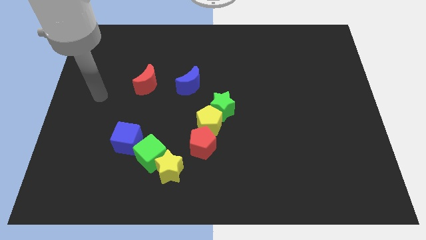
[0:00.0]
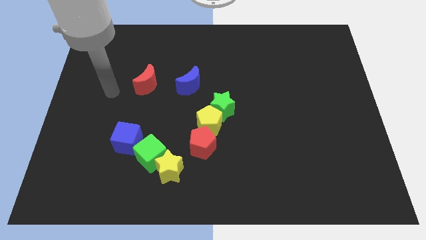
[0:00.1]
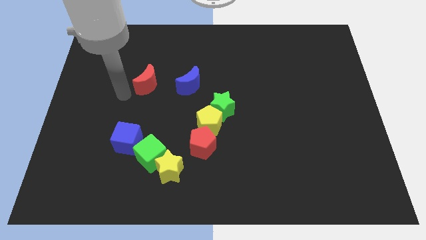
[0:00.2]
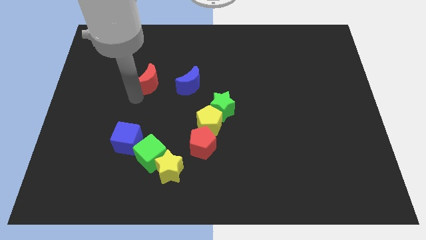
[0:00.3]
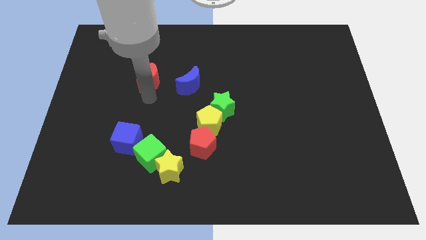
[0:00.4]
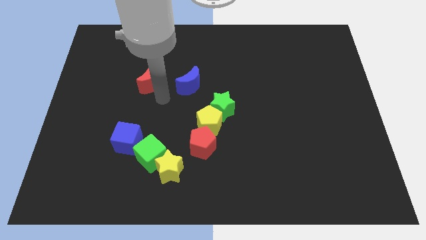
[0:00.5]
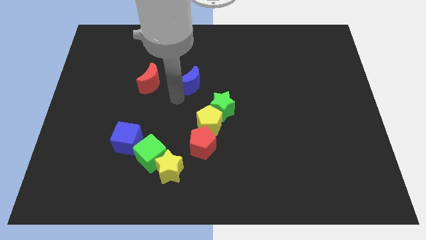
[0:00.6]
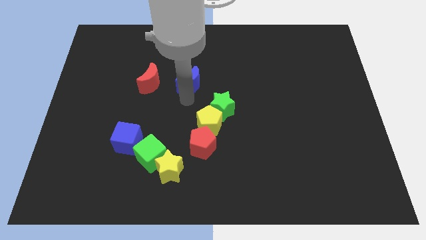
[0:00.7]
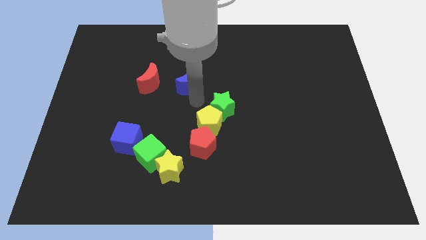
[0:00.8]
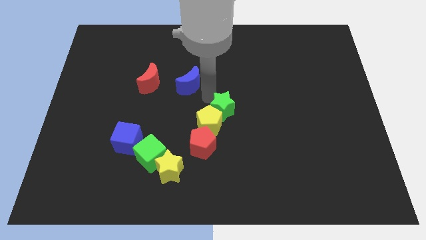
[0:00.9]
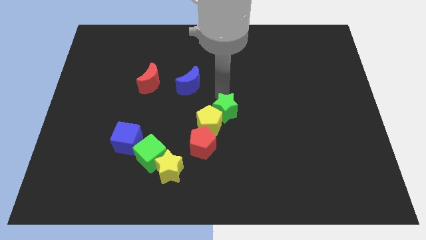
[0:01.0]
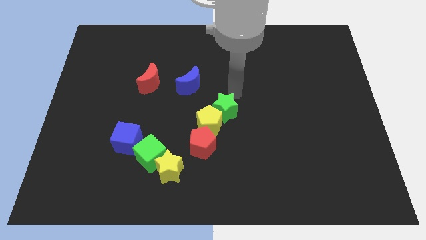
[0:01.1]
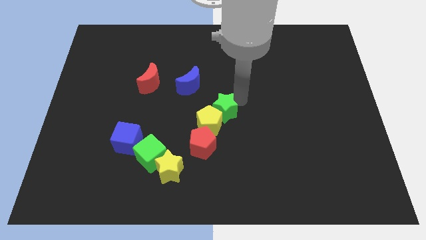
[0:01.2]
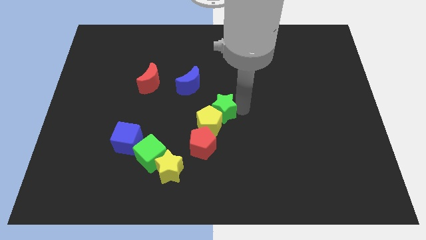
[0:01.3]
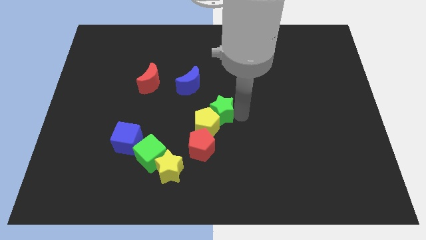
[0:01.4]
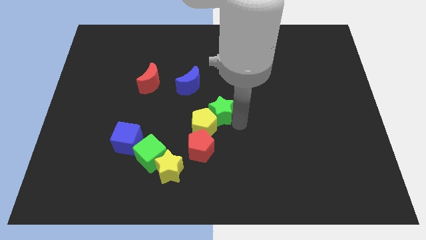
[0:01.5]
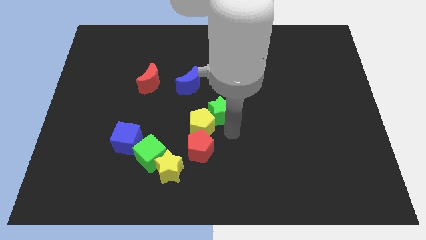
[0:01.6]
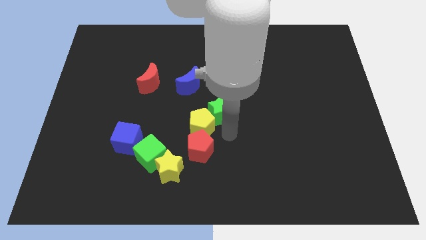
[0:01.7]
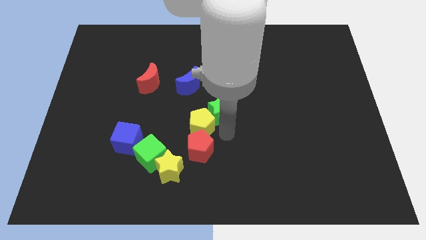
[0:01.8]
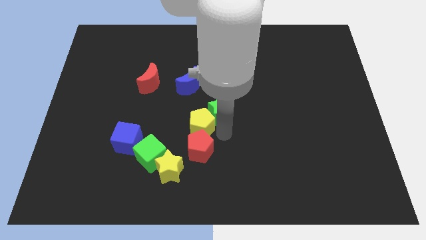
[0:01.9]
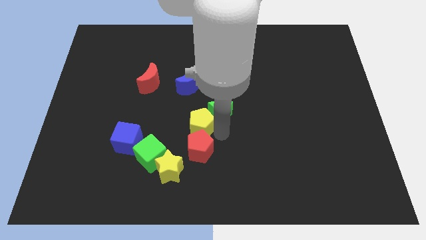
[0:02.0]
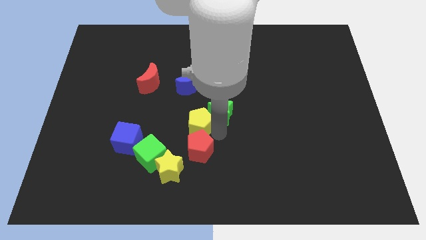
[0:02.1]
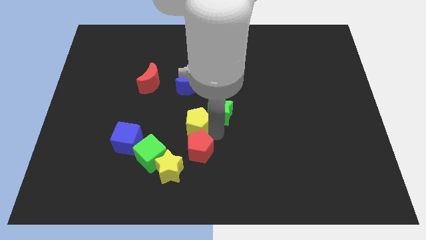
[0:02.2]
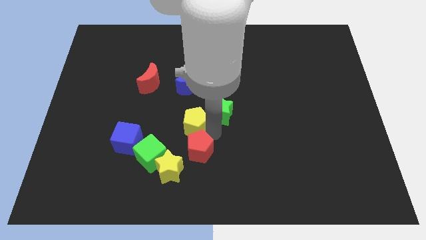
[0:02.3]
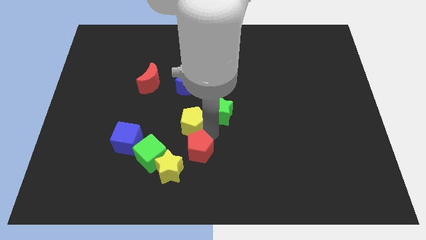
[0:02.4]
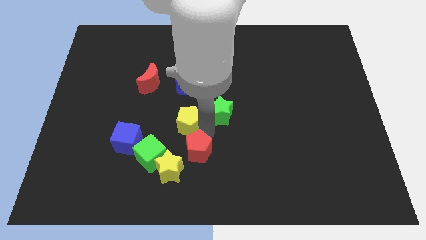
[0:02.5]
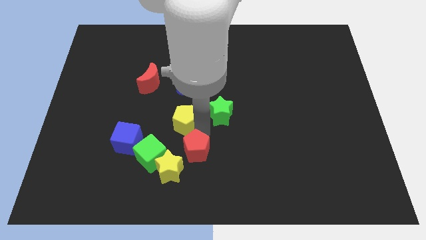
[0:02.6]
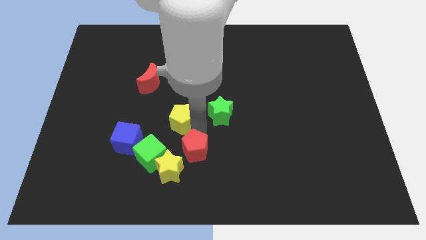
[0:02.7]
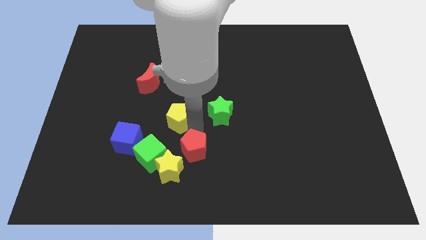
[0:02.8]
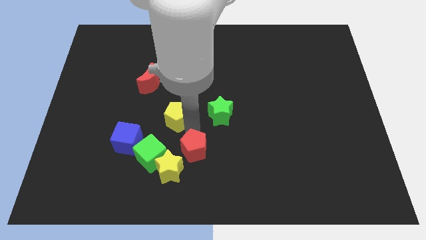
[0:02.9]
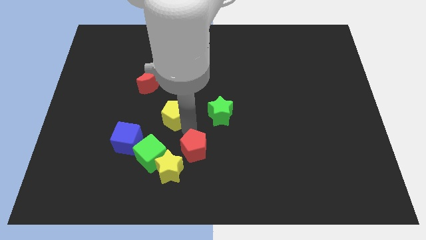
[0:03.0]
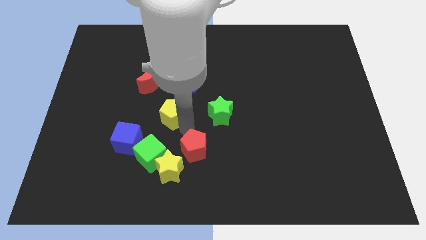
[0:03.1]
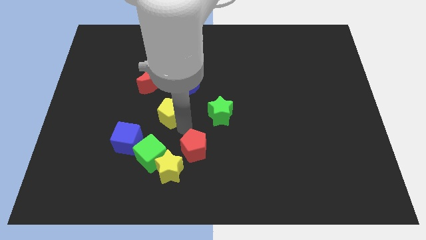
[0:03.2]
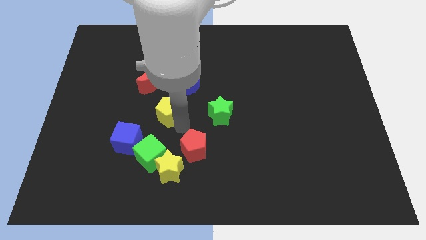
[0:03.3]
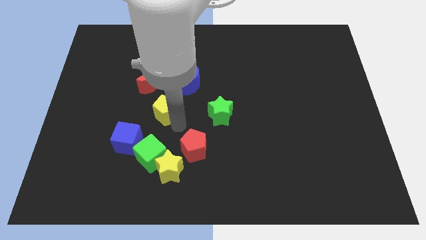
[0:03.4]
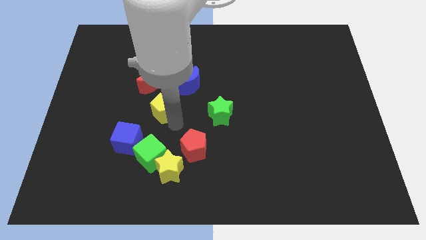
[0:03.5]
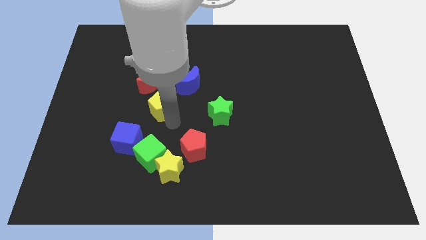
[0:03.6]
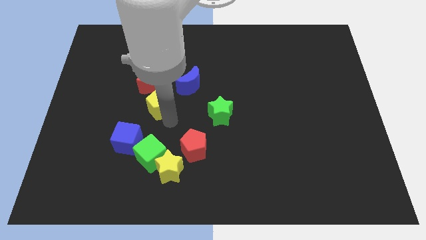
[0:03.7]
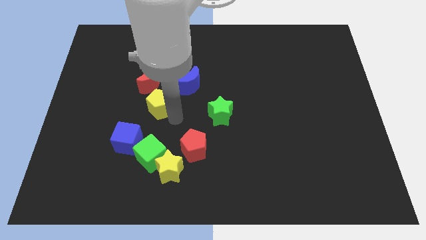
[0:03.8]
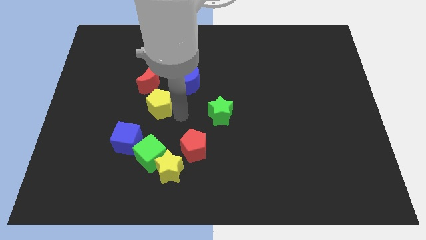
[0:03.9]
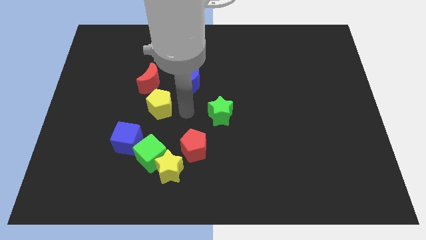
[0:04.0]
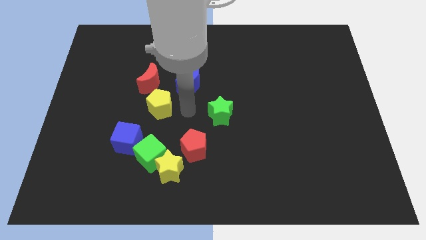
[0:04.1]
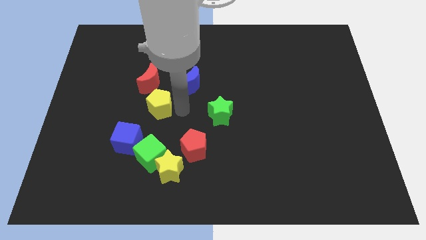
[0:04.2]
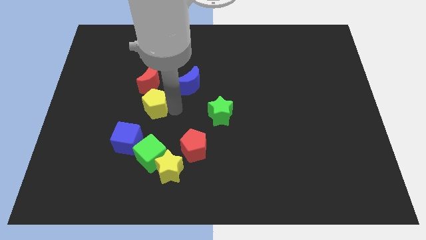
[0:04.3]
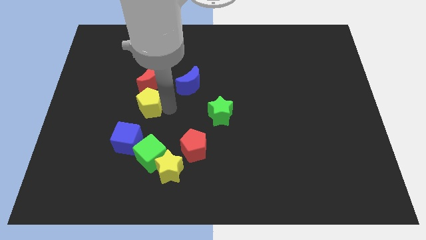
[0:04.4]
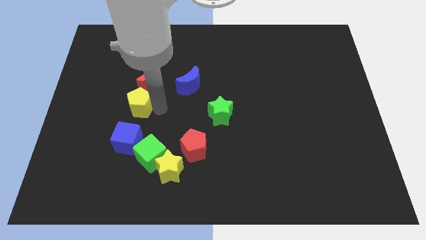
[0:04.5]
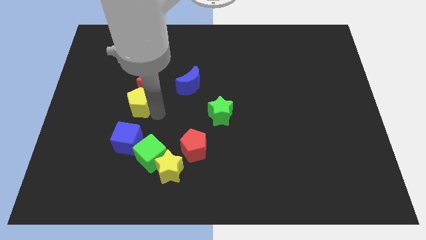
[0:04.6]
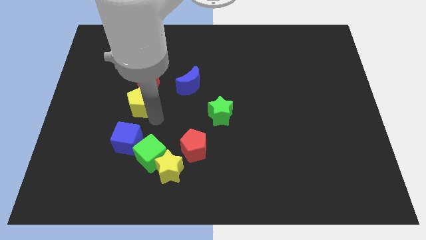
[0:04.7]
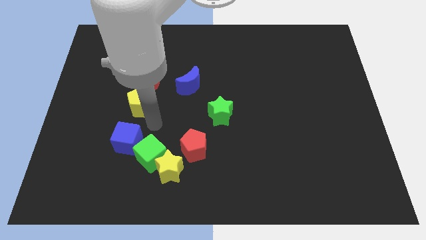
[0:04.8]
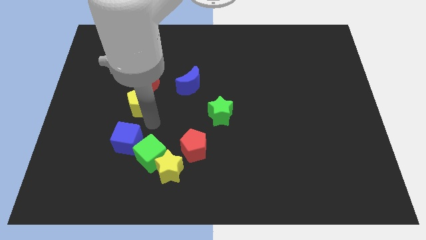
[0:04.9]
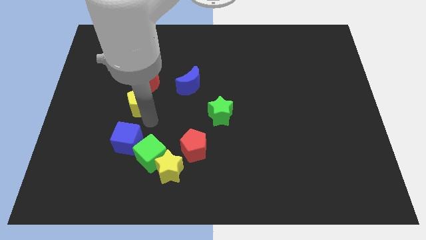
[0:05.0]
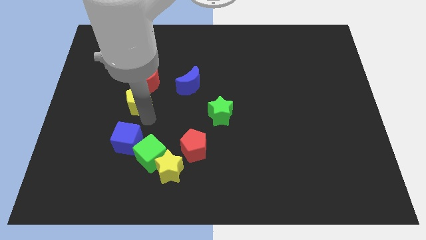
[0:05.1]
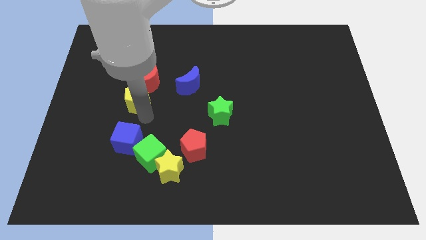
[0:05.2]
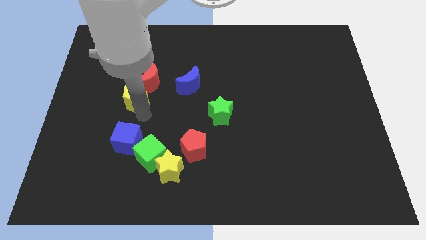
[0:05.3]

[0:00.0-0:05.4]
slide the yellow pentagon just left of the blue moon

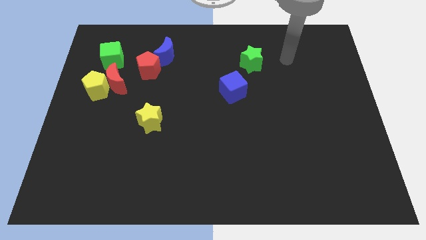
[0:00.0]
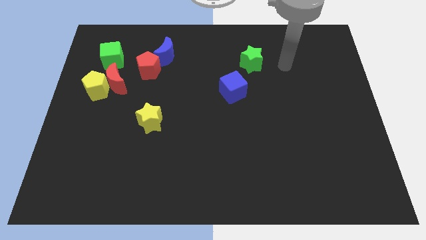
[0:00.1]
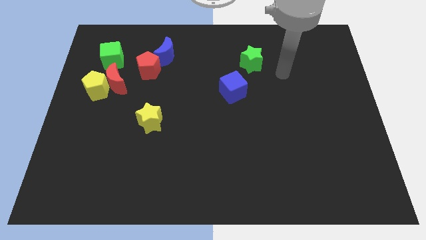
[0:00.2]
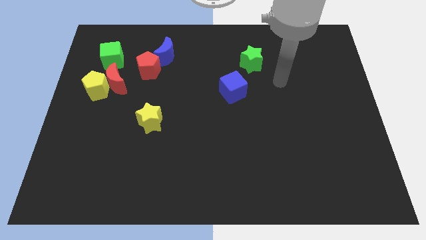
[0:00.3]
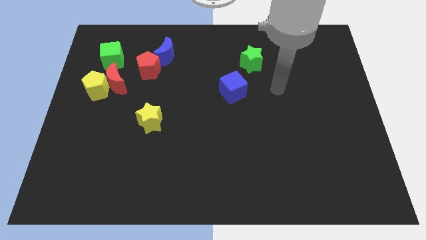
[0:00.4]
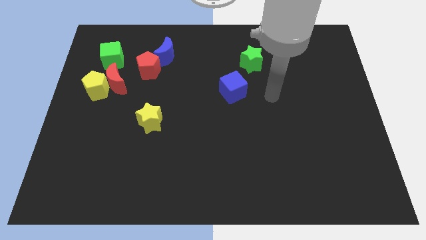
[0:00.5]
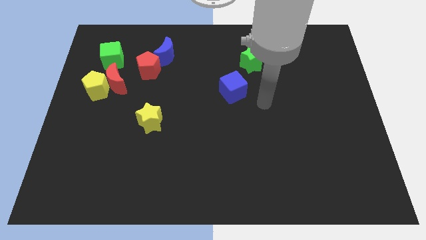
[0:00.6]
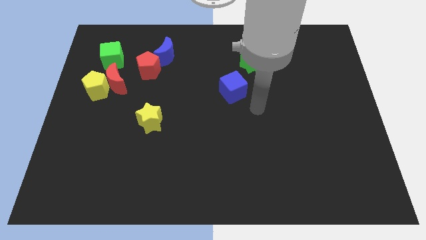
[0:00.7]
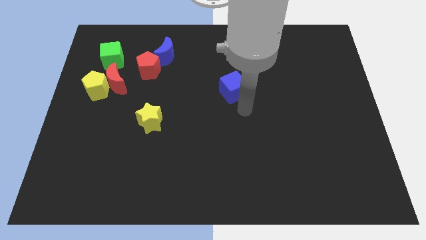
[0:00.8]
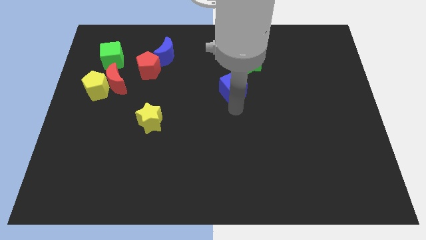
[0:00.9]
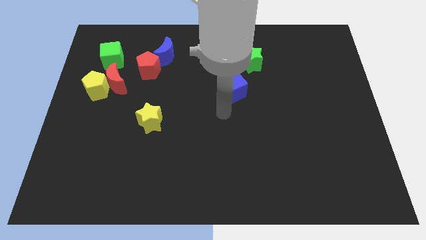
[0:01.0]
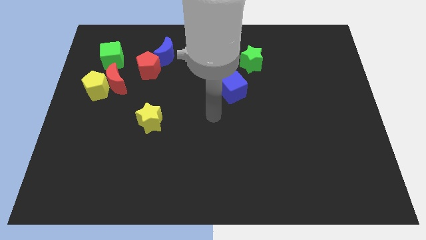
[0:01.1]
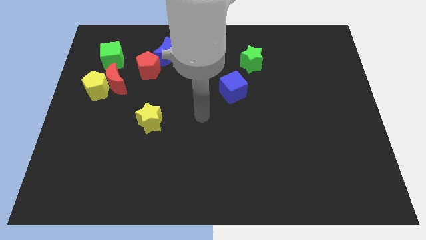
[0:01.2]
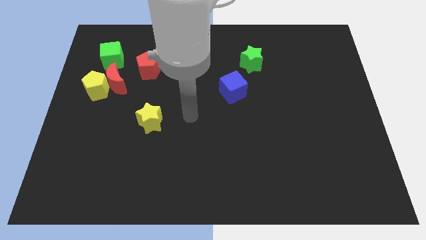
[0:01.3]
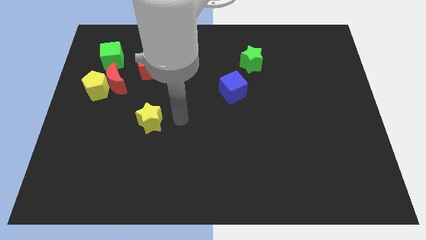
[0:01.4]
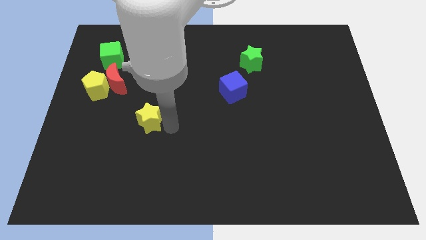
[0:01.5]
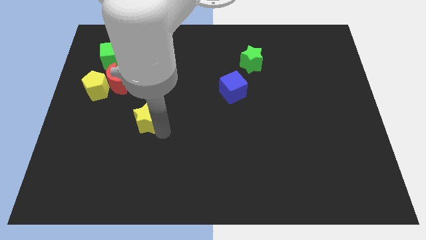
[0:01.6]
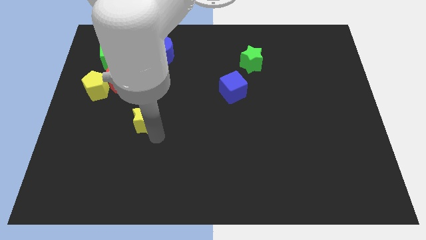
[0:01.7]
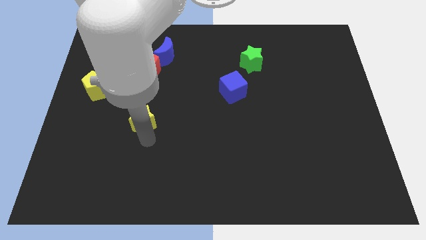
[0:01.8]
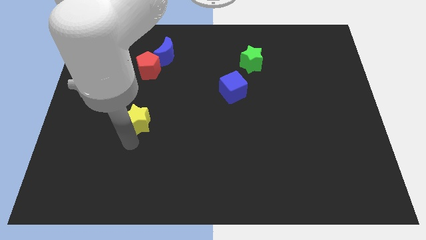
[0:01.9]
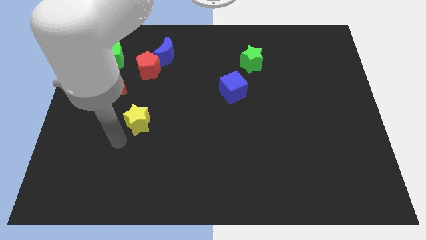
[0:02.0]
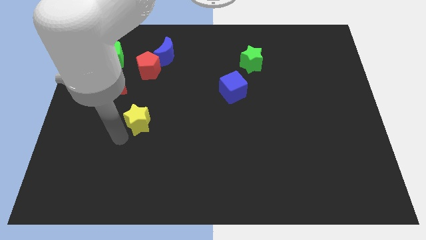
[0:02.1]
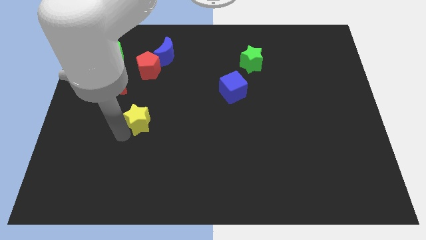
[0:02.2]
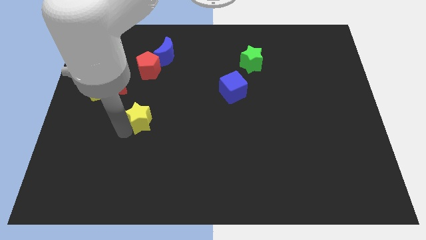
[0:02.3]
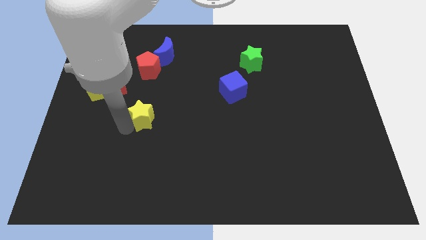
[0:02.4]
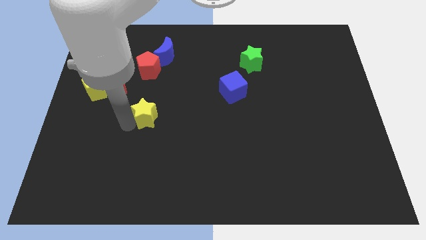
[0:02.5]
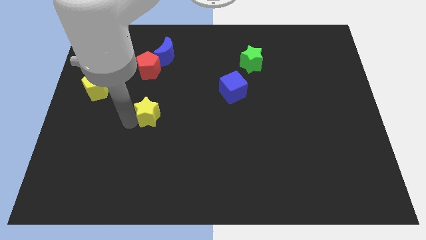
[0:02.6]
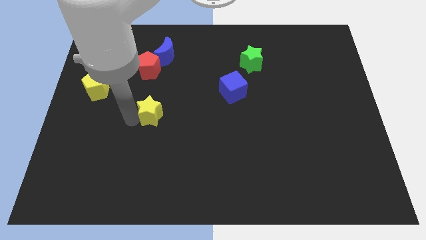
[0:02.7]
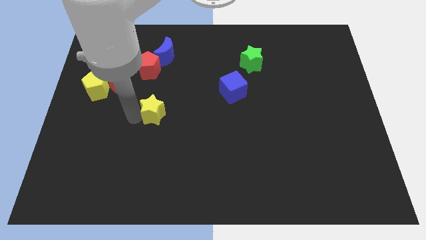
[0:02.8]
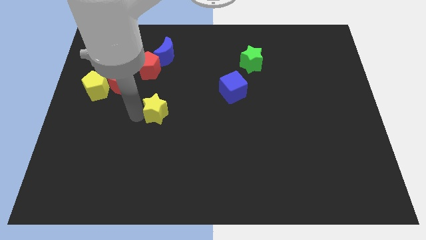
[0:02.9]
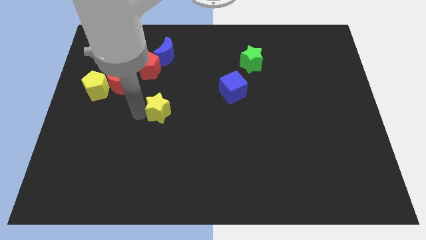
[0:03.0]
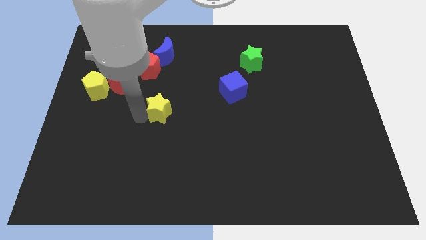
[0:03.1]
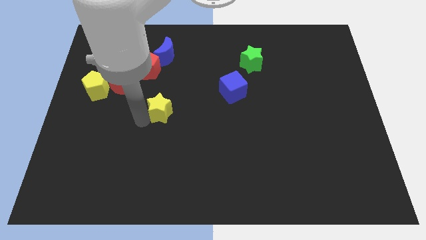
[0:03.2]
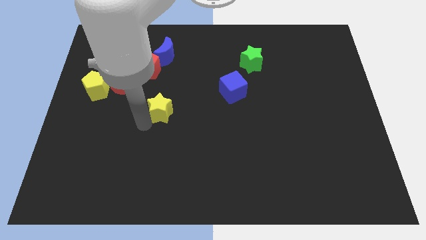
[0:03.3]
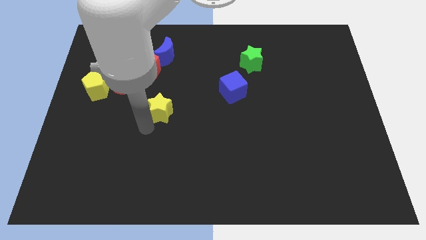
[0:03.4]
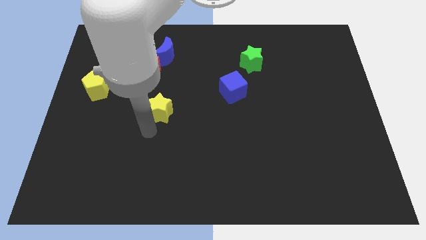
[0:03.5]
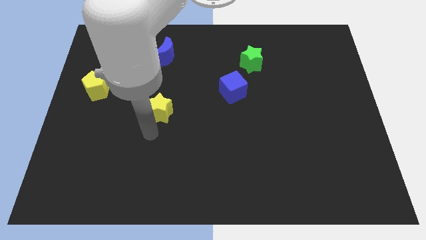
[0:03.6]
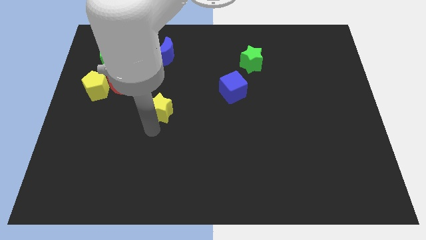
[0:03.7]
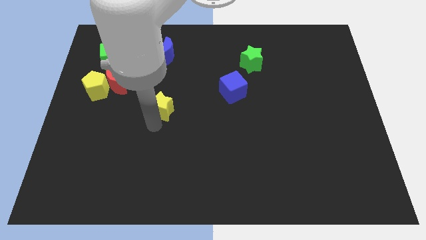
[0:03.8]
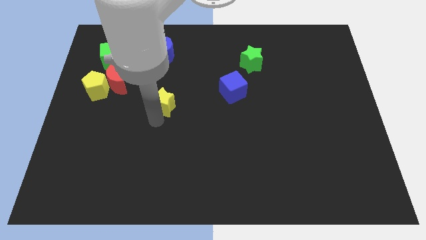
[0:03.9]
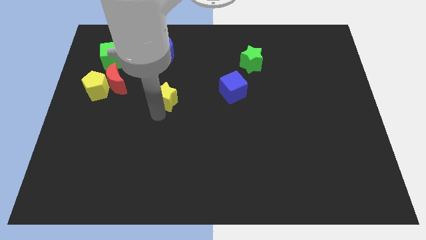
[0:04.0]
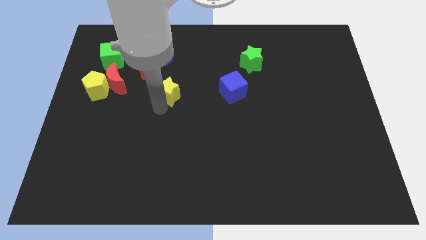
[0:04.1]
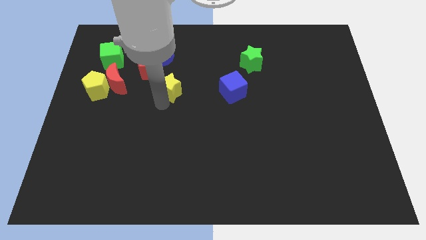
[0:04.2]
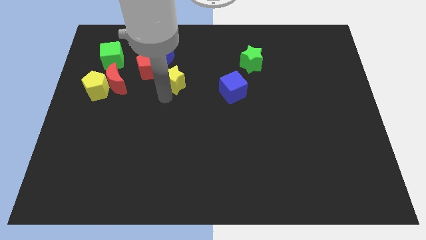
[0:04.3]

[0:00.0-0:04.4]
slide the yellow star to the bottom right of the blue moon
